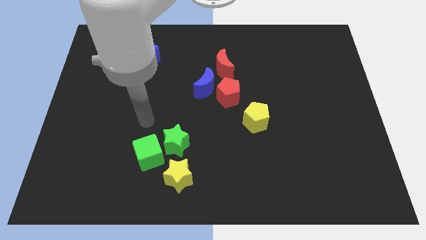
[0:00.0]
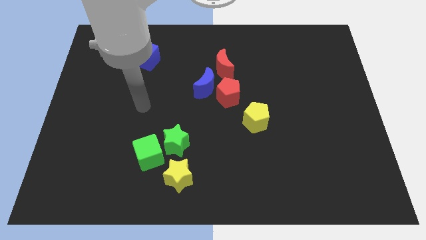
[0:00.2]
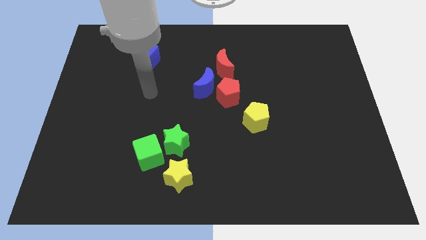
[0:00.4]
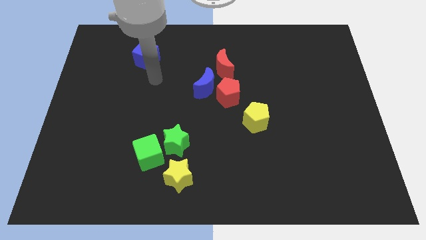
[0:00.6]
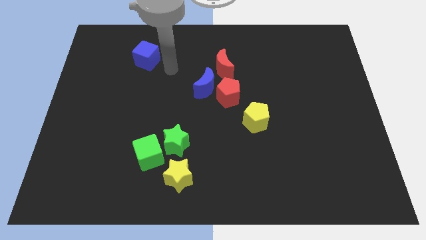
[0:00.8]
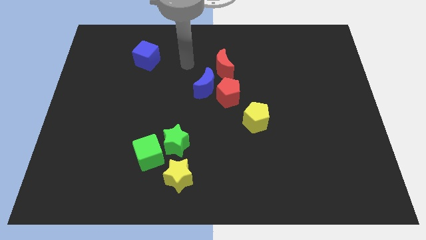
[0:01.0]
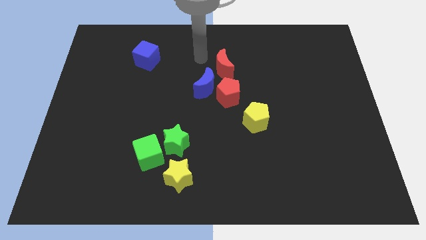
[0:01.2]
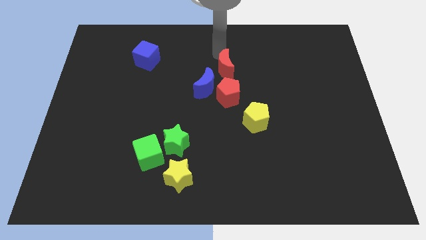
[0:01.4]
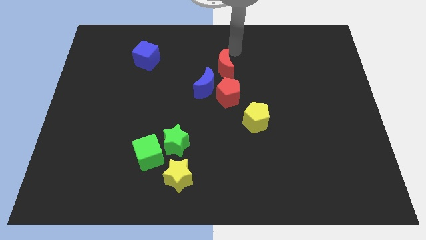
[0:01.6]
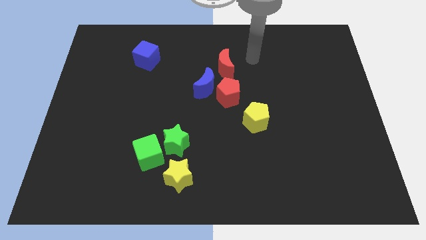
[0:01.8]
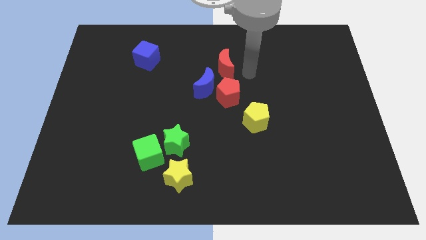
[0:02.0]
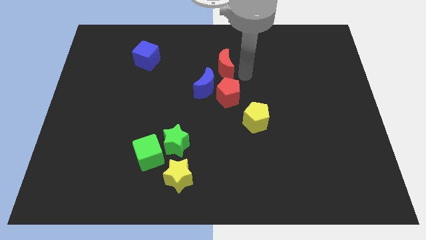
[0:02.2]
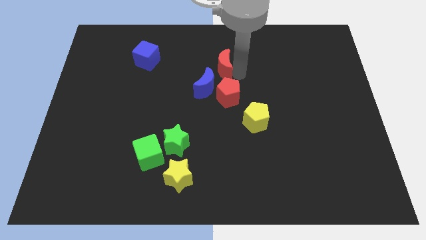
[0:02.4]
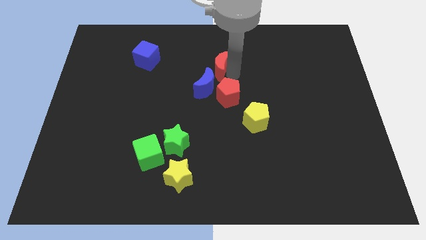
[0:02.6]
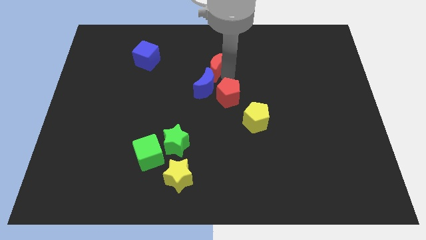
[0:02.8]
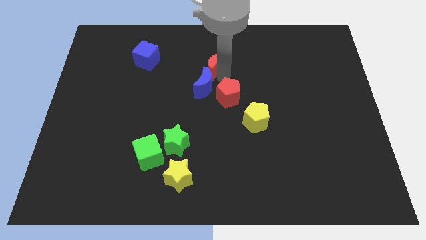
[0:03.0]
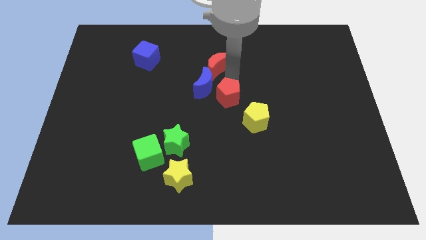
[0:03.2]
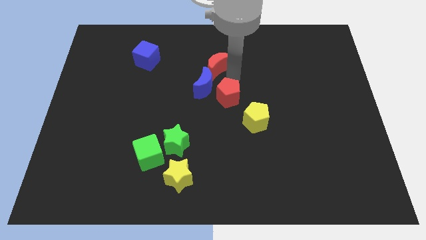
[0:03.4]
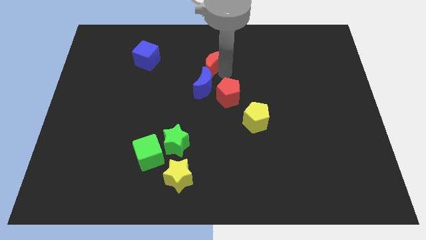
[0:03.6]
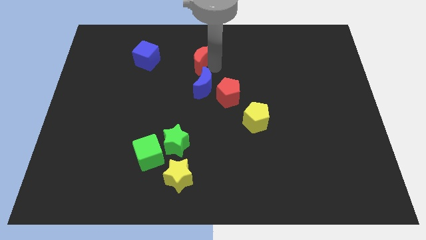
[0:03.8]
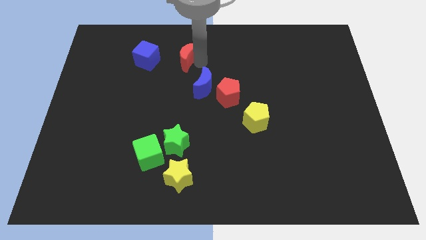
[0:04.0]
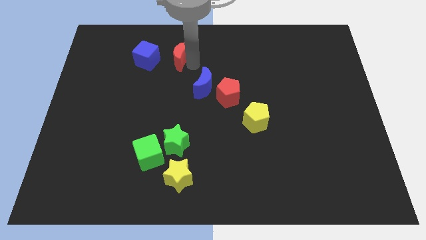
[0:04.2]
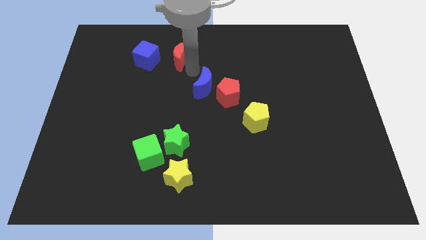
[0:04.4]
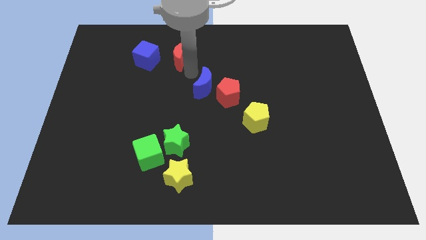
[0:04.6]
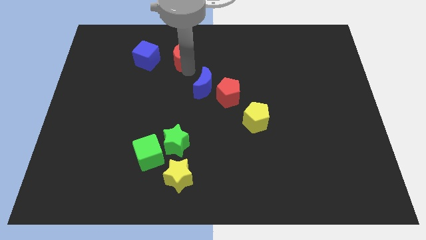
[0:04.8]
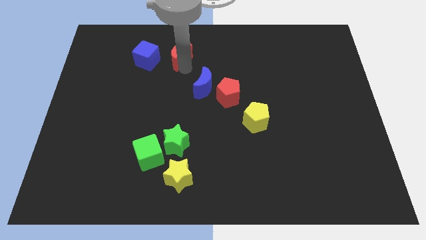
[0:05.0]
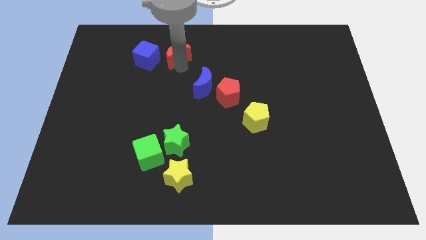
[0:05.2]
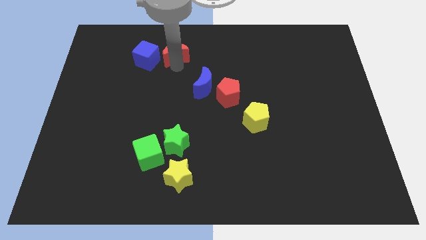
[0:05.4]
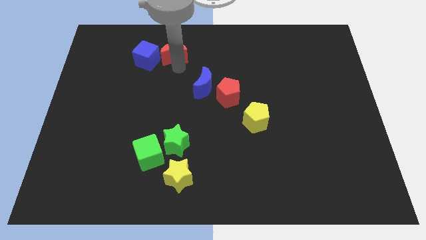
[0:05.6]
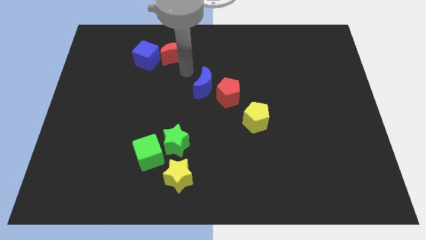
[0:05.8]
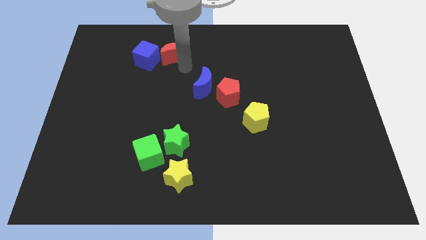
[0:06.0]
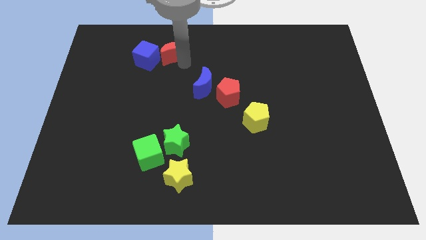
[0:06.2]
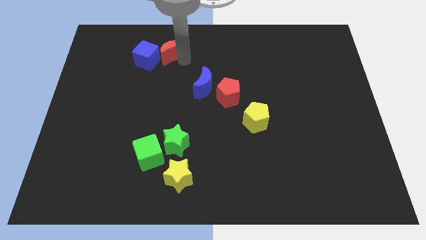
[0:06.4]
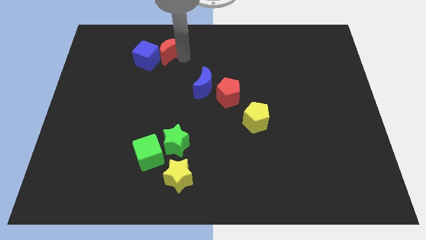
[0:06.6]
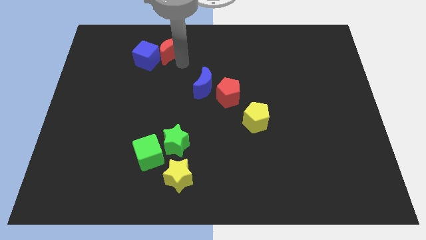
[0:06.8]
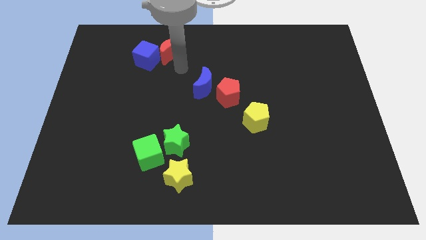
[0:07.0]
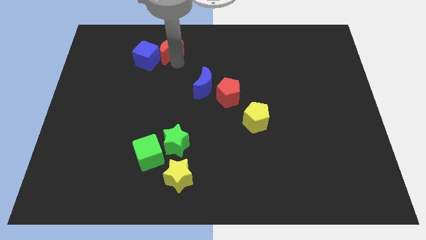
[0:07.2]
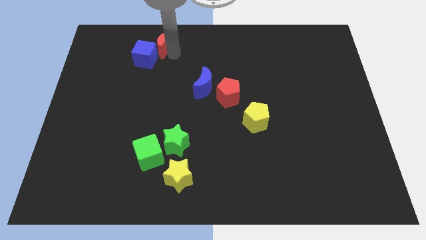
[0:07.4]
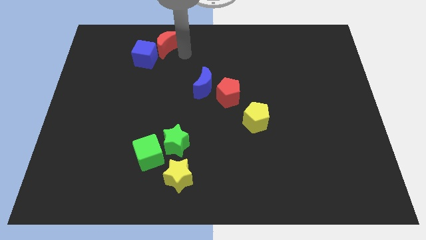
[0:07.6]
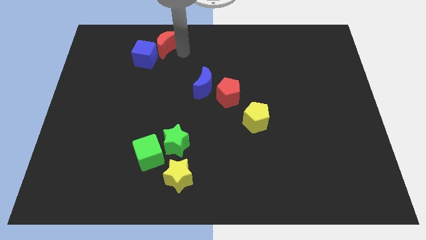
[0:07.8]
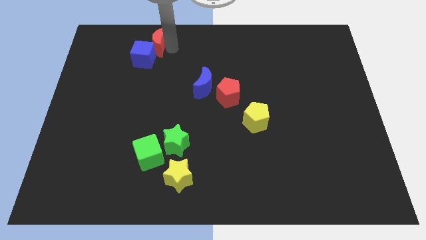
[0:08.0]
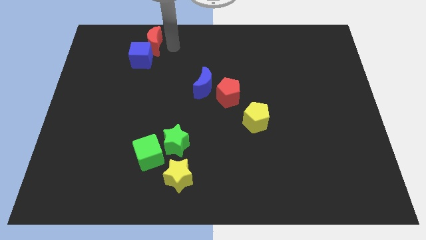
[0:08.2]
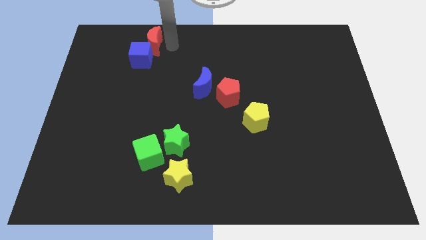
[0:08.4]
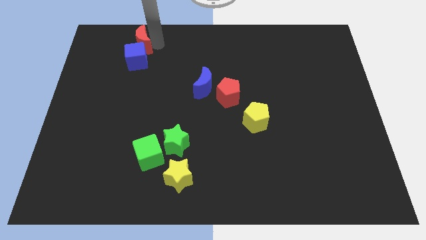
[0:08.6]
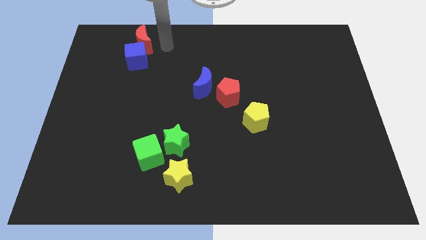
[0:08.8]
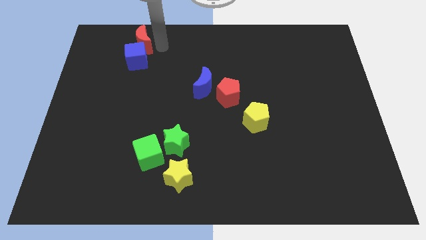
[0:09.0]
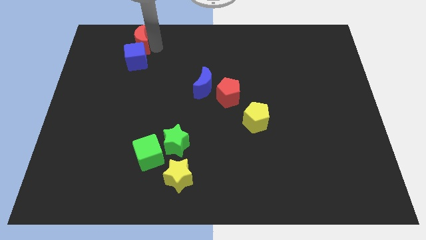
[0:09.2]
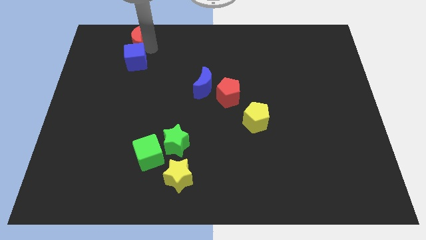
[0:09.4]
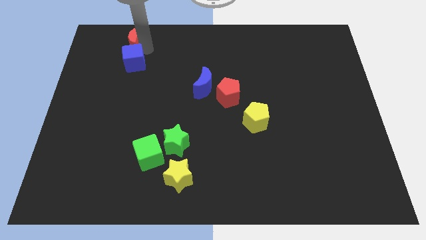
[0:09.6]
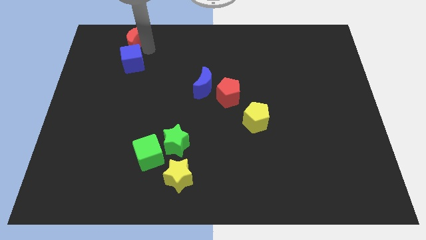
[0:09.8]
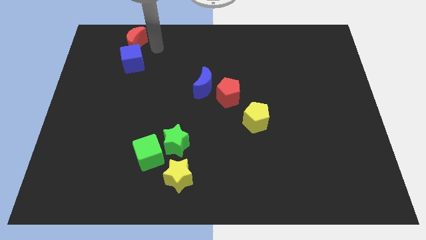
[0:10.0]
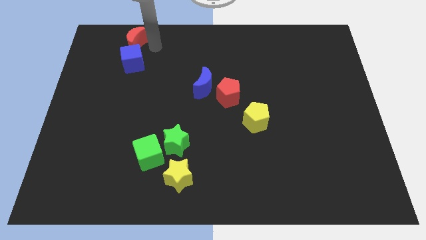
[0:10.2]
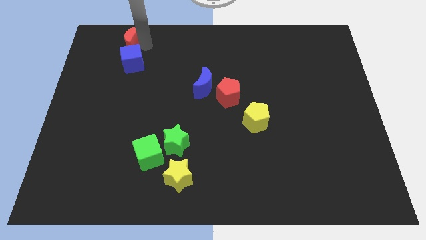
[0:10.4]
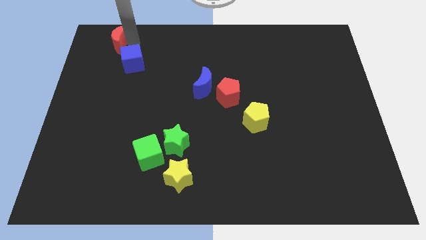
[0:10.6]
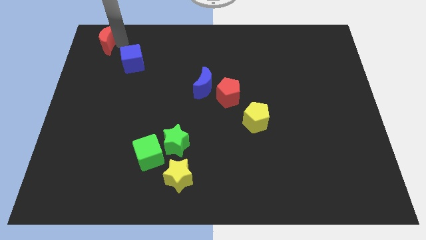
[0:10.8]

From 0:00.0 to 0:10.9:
move the red moon to the top left
